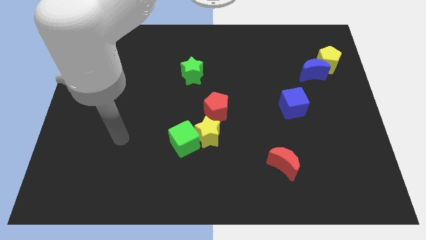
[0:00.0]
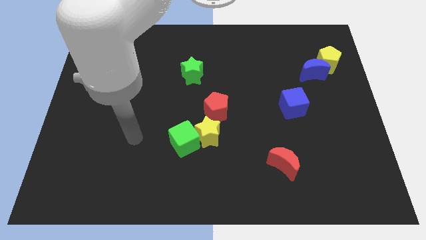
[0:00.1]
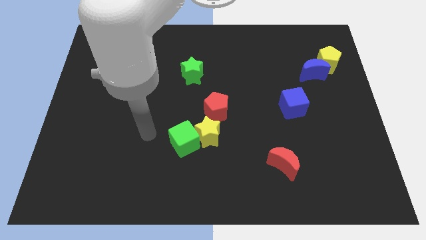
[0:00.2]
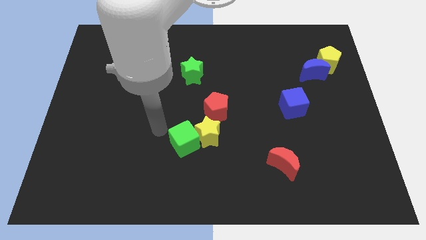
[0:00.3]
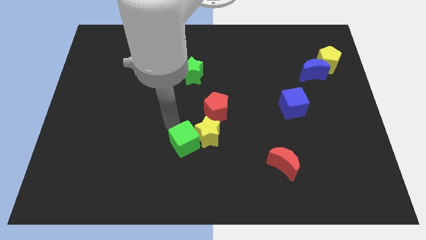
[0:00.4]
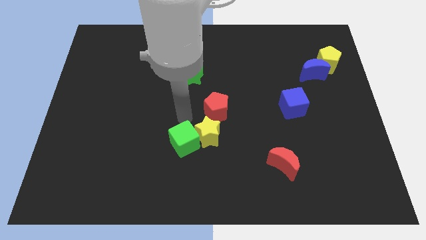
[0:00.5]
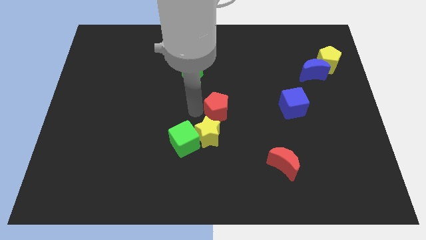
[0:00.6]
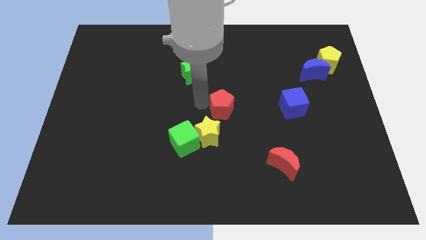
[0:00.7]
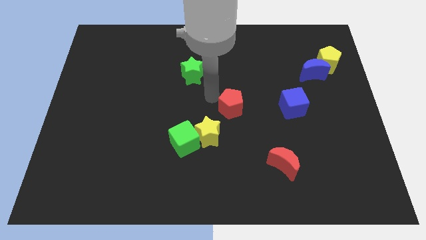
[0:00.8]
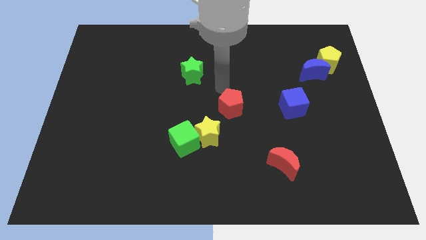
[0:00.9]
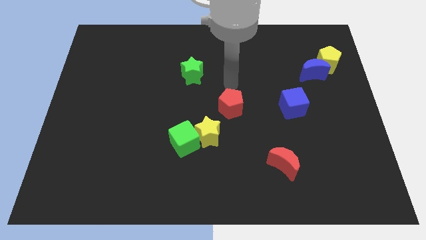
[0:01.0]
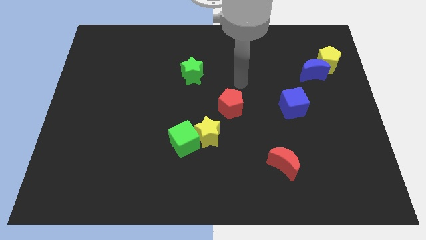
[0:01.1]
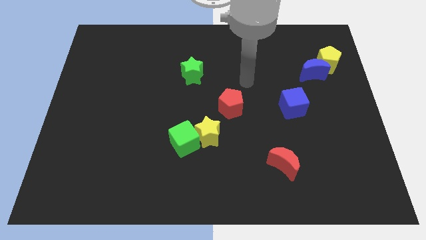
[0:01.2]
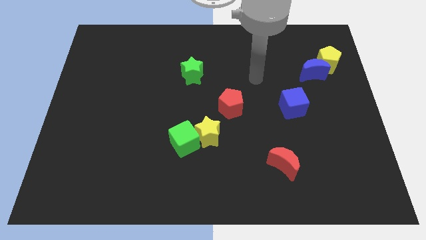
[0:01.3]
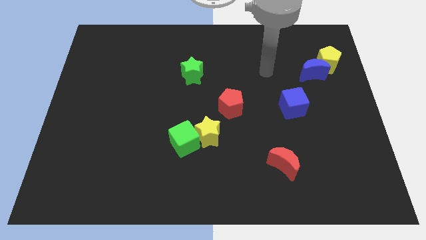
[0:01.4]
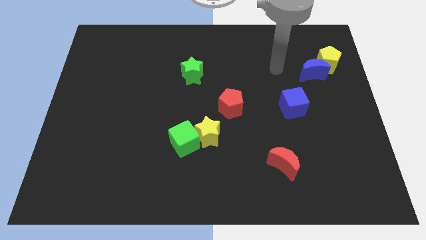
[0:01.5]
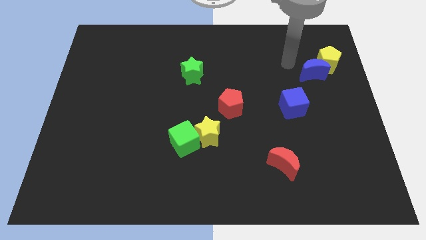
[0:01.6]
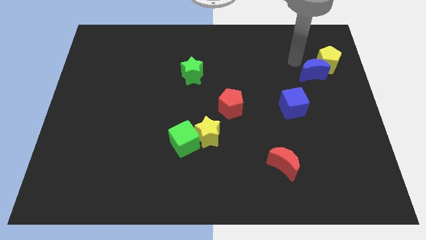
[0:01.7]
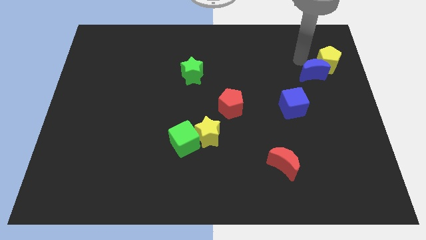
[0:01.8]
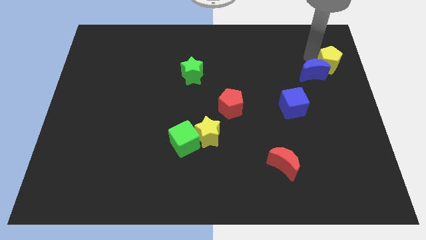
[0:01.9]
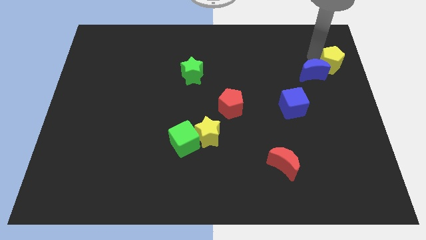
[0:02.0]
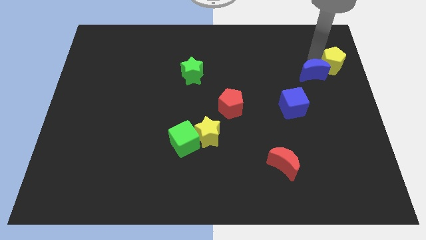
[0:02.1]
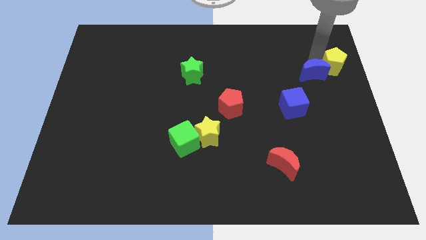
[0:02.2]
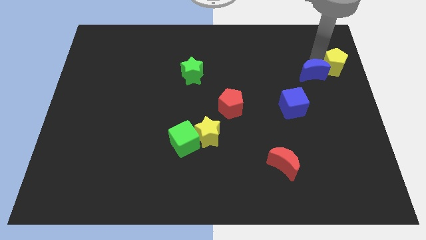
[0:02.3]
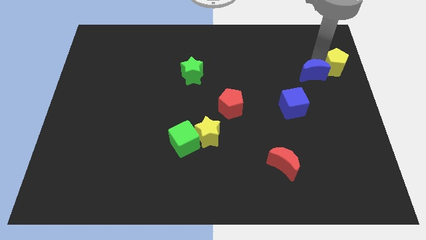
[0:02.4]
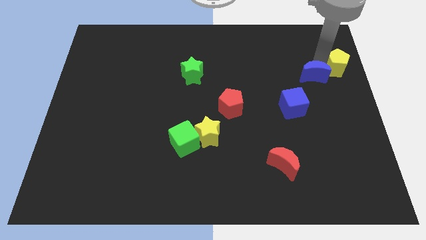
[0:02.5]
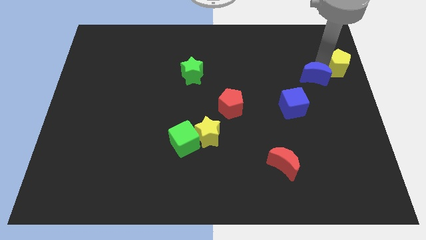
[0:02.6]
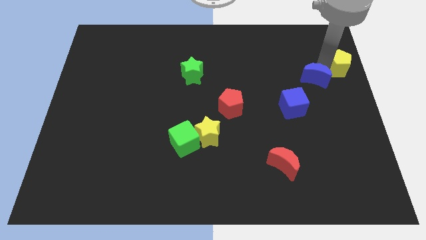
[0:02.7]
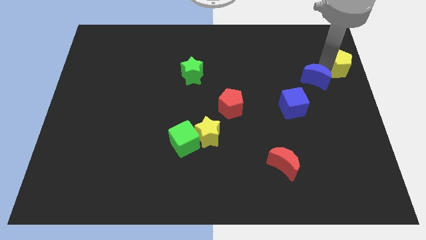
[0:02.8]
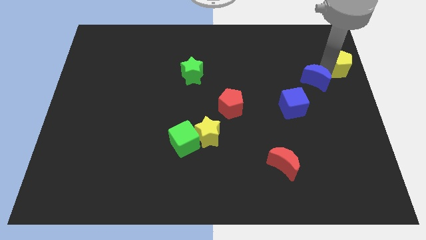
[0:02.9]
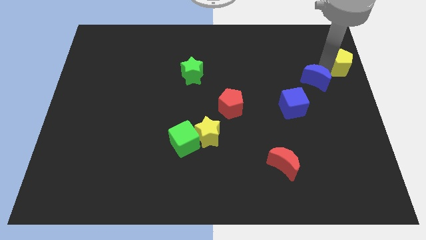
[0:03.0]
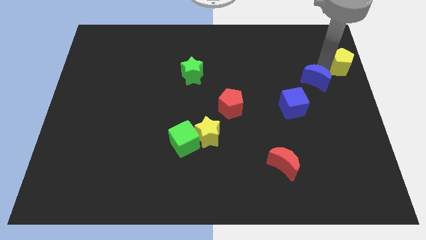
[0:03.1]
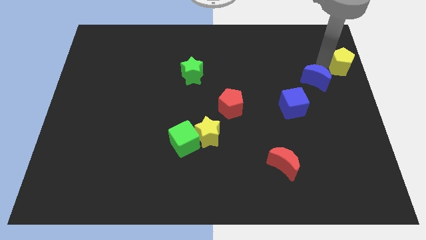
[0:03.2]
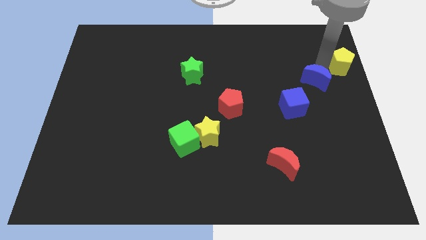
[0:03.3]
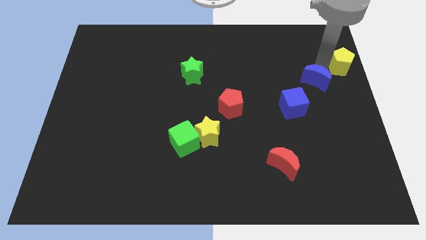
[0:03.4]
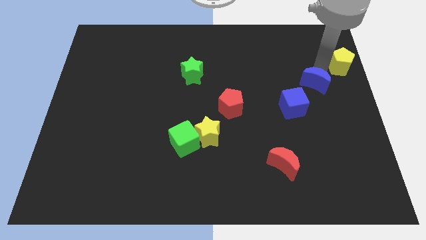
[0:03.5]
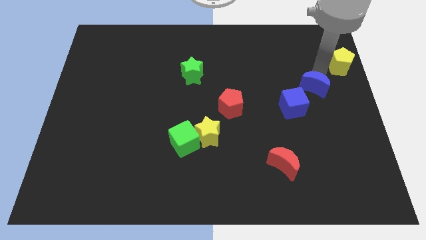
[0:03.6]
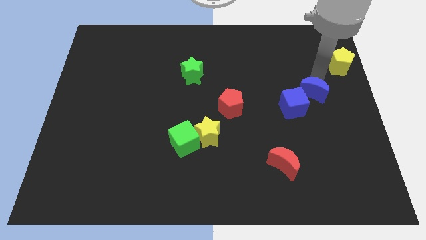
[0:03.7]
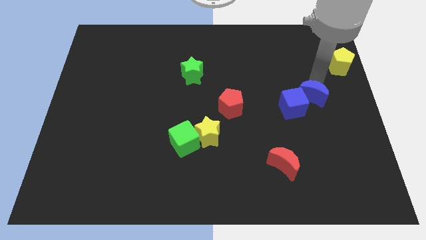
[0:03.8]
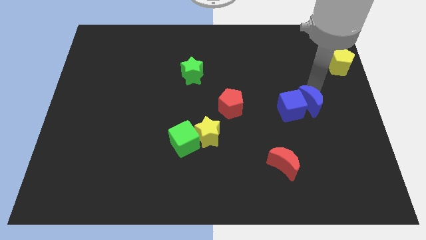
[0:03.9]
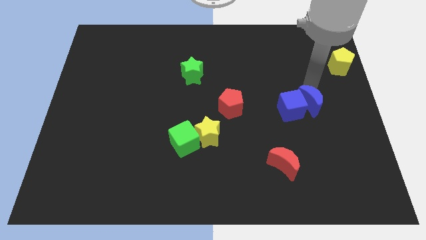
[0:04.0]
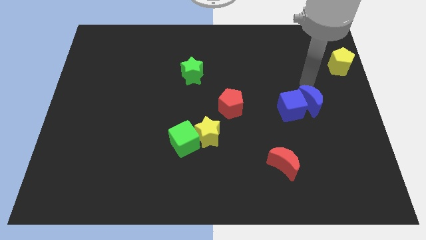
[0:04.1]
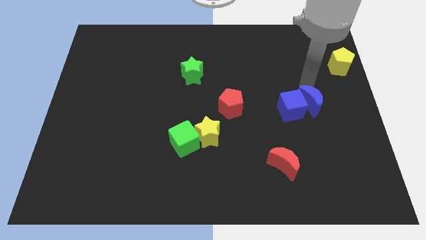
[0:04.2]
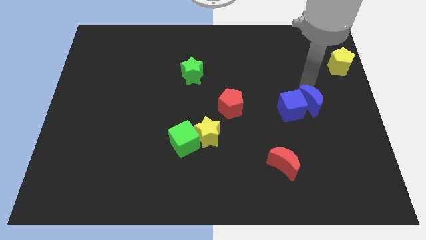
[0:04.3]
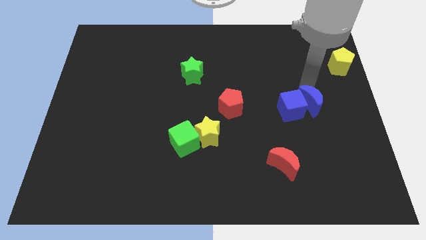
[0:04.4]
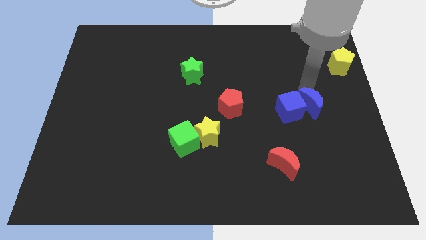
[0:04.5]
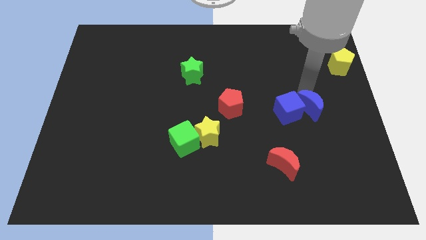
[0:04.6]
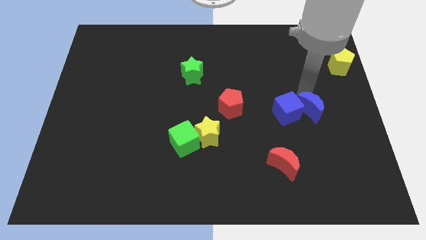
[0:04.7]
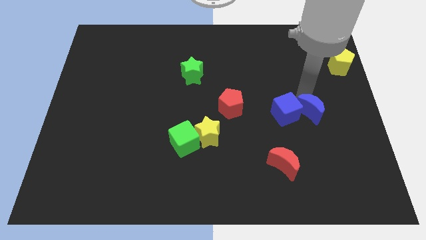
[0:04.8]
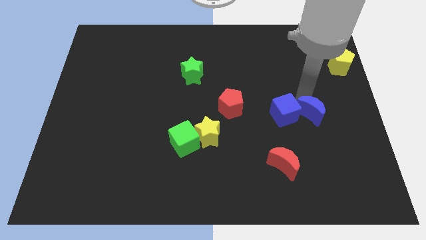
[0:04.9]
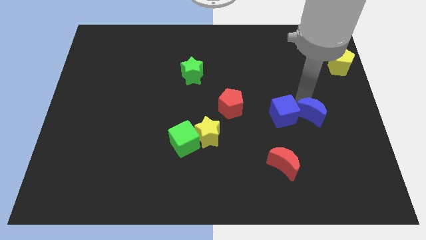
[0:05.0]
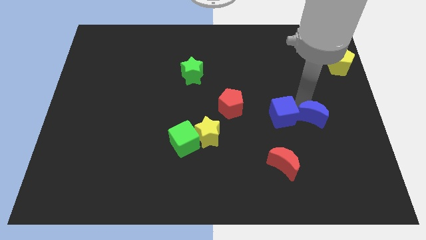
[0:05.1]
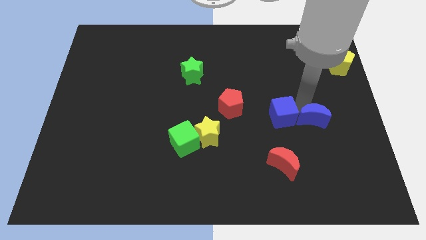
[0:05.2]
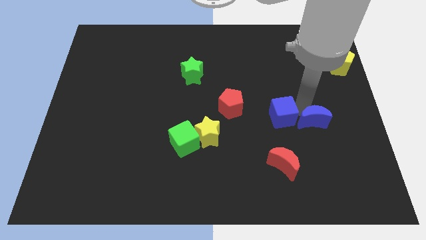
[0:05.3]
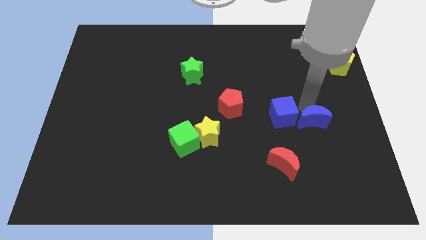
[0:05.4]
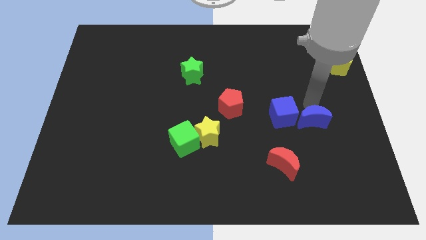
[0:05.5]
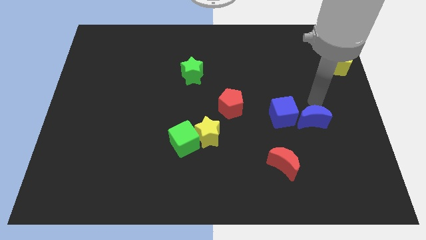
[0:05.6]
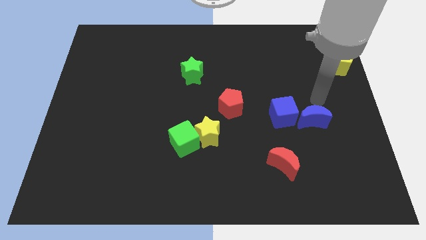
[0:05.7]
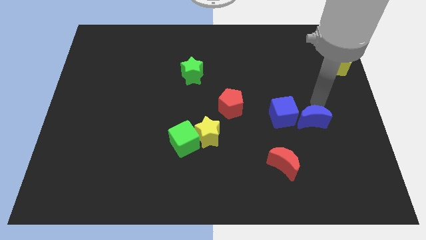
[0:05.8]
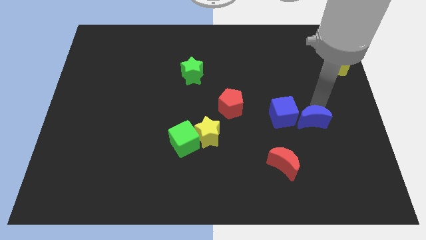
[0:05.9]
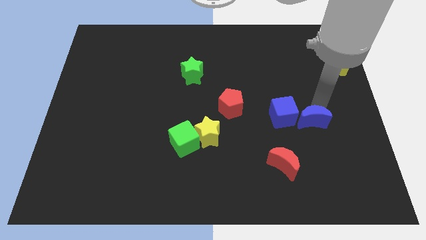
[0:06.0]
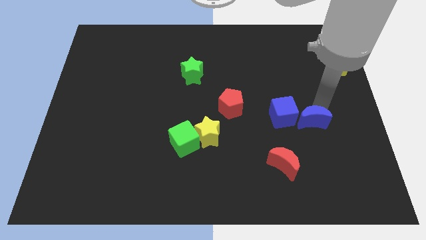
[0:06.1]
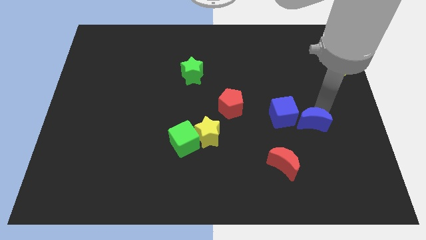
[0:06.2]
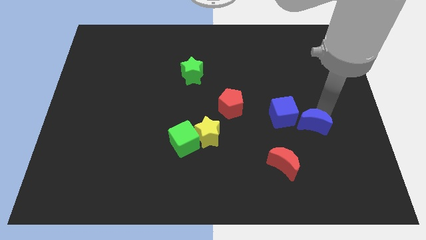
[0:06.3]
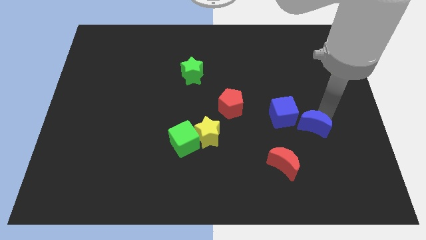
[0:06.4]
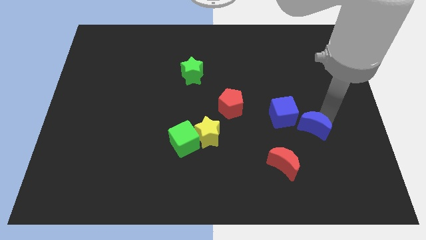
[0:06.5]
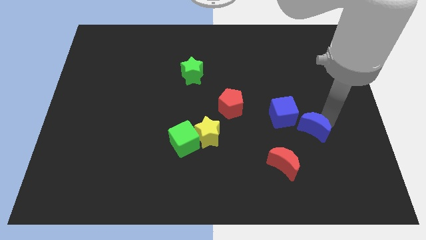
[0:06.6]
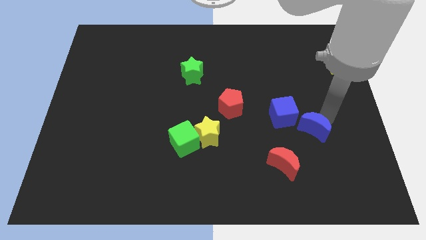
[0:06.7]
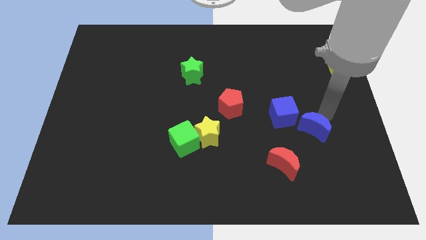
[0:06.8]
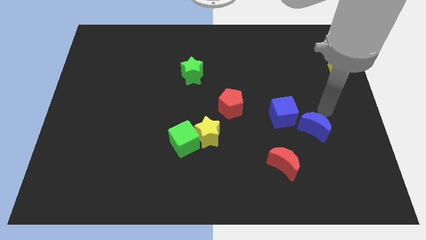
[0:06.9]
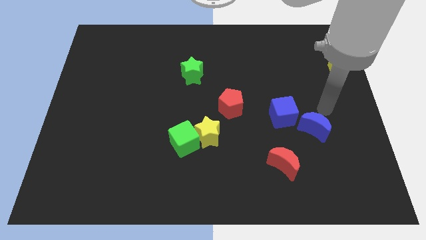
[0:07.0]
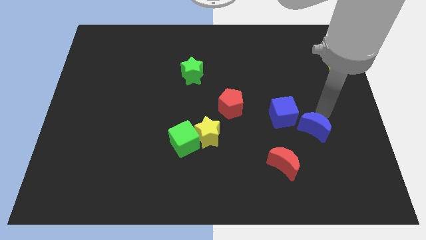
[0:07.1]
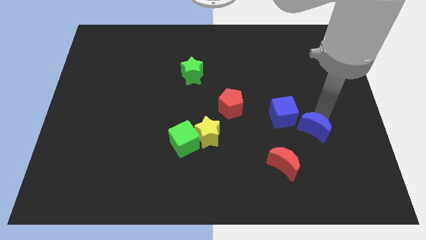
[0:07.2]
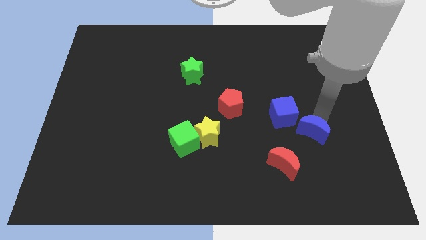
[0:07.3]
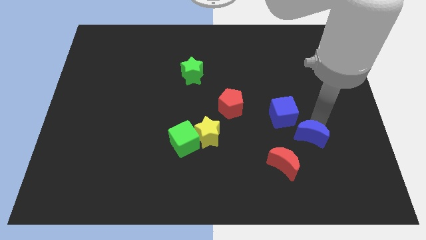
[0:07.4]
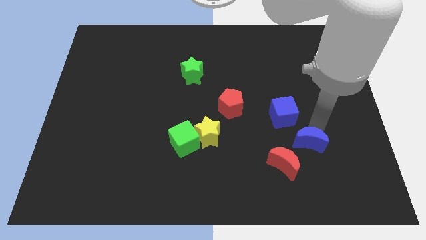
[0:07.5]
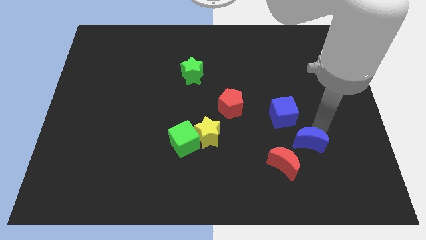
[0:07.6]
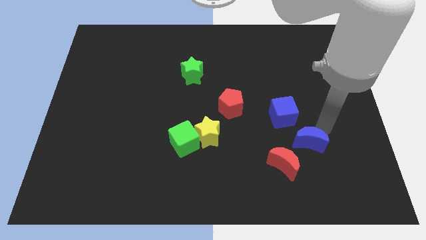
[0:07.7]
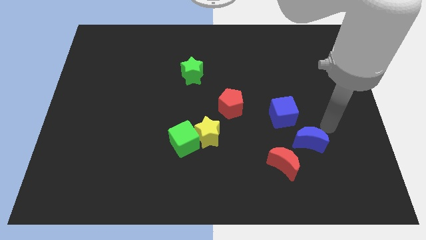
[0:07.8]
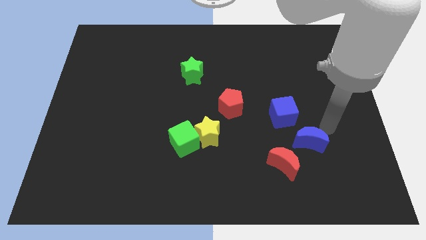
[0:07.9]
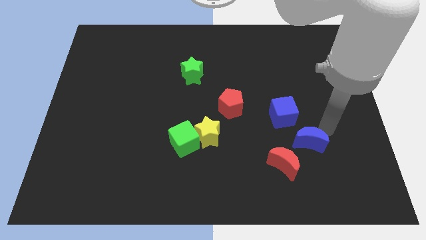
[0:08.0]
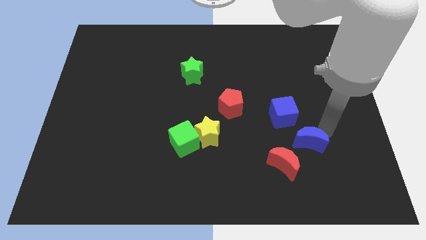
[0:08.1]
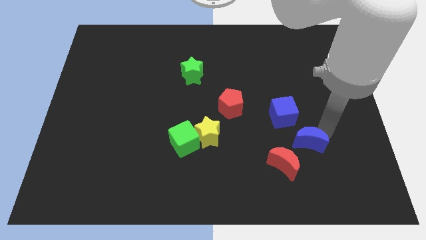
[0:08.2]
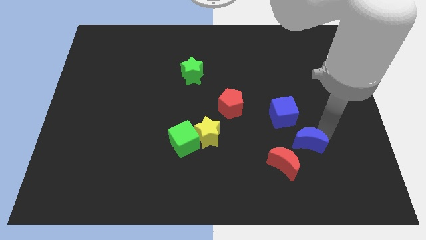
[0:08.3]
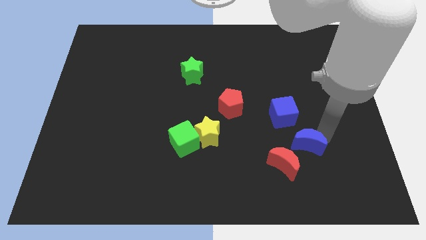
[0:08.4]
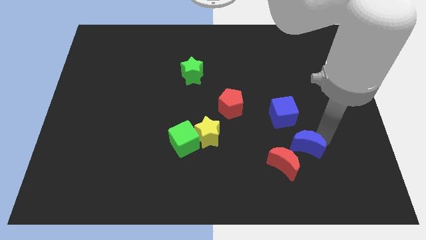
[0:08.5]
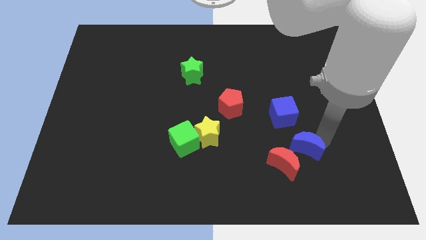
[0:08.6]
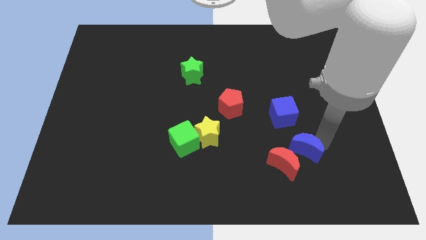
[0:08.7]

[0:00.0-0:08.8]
move the blue moon next to the red moon
